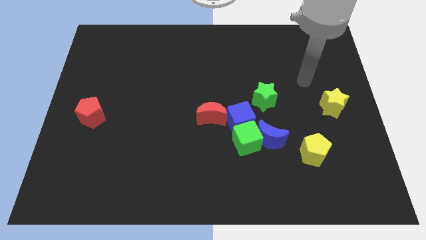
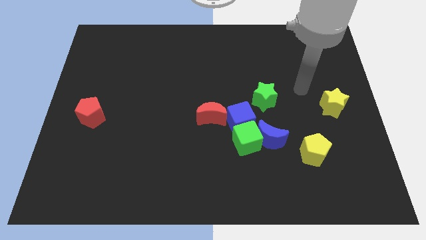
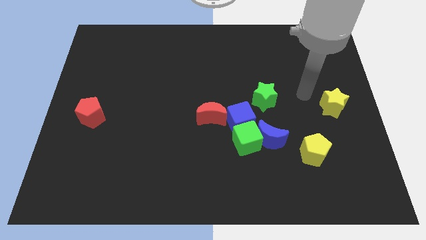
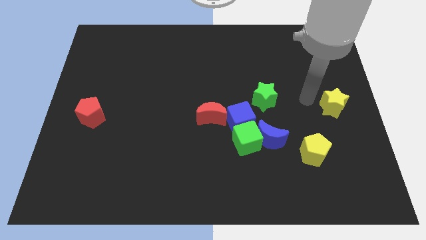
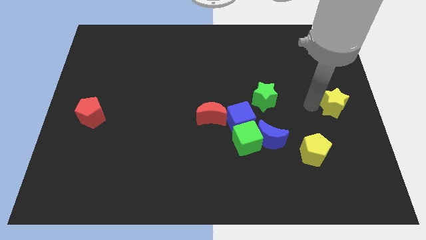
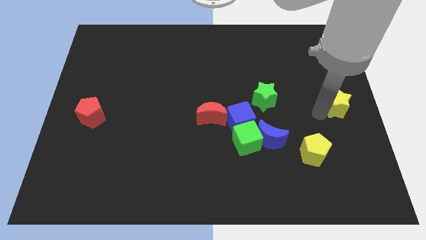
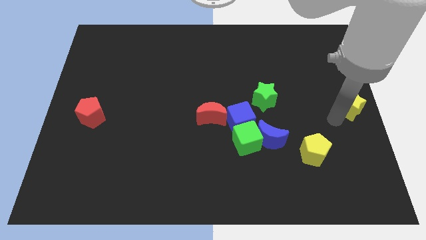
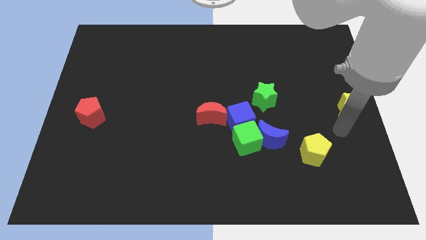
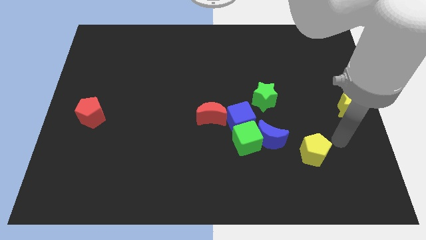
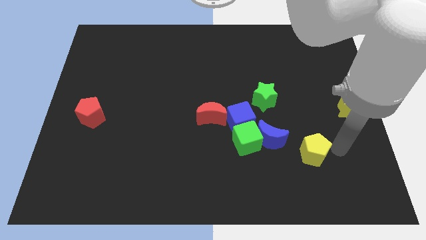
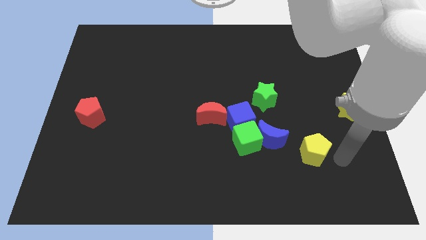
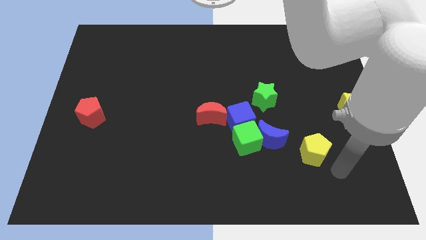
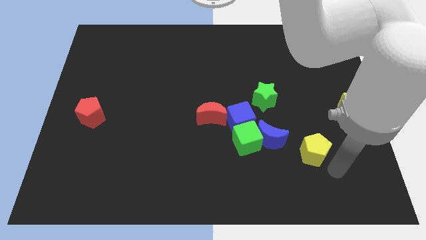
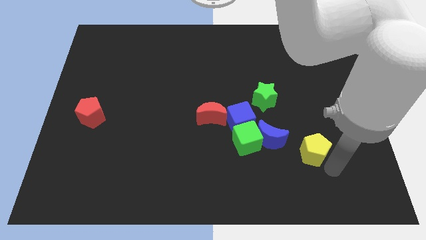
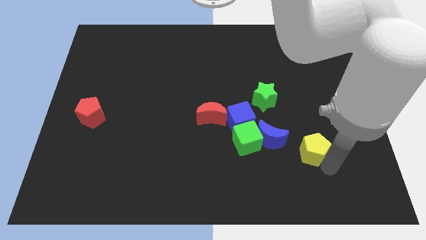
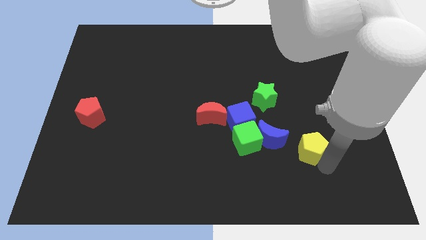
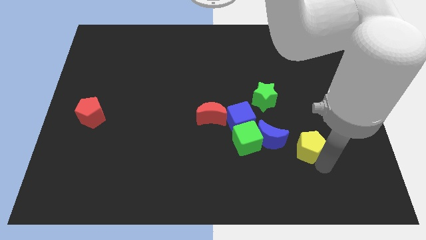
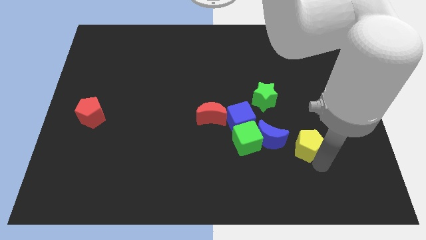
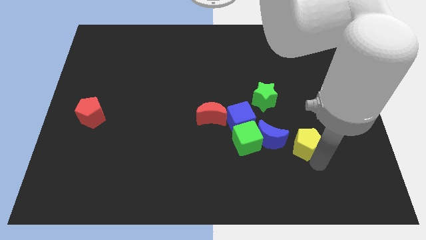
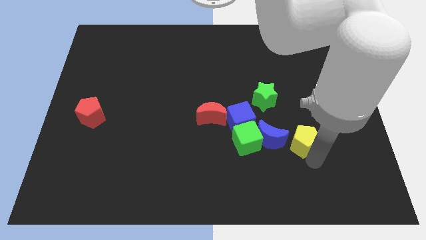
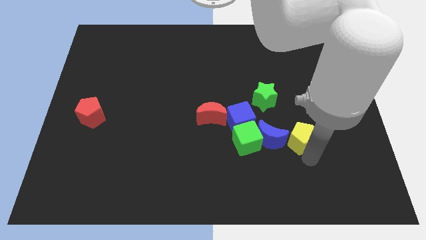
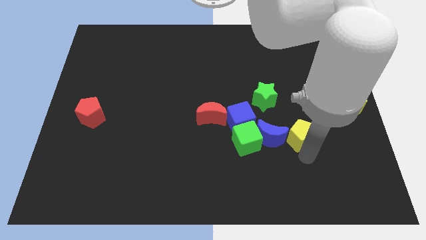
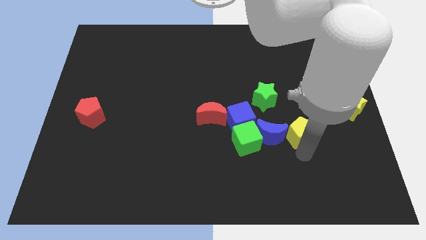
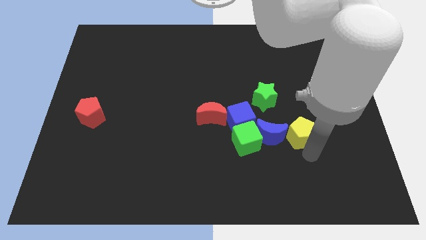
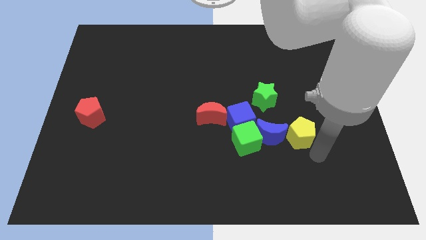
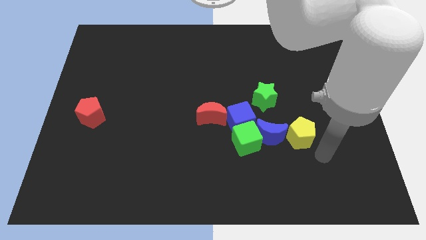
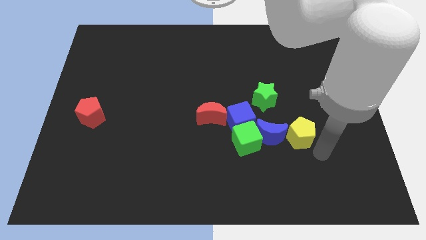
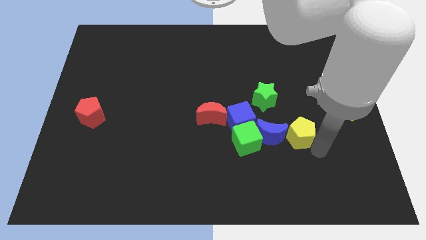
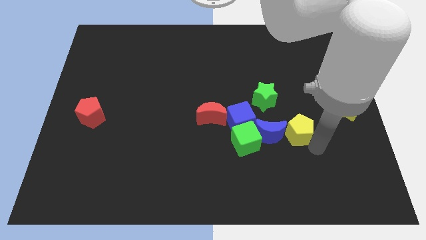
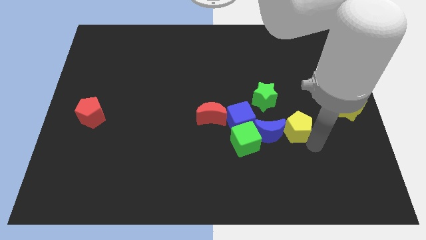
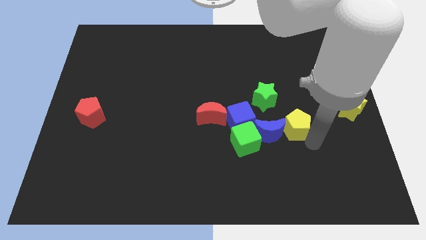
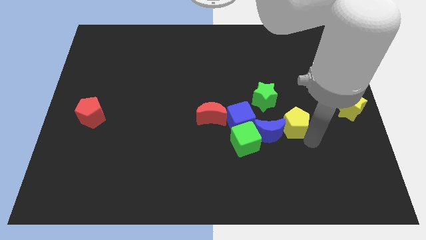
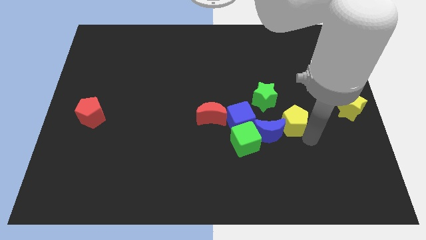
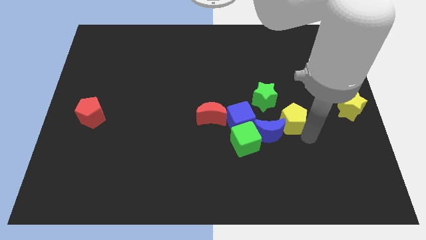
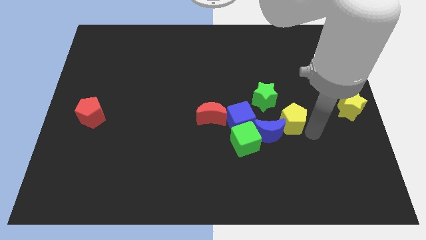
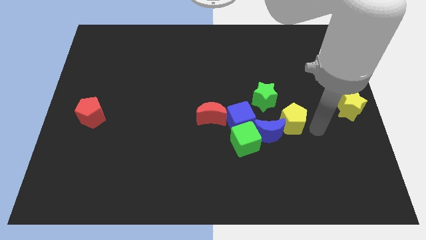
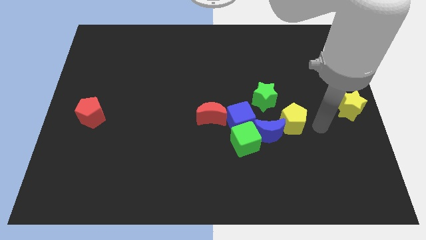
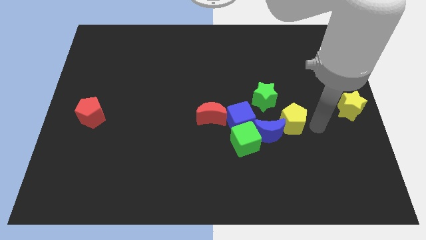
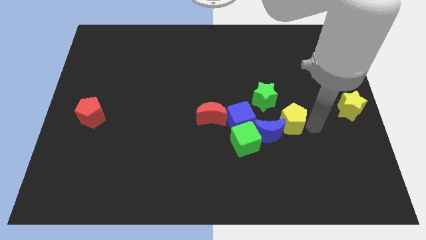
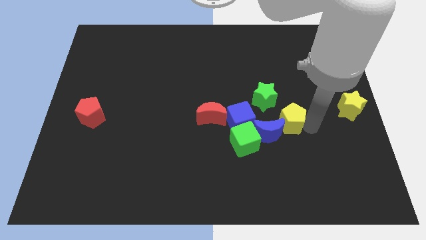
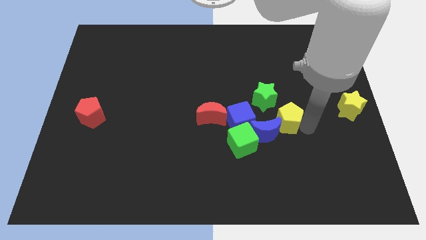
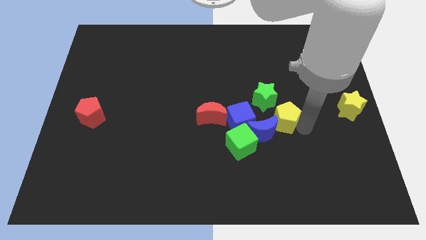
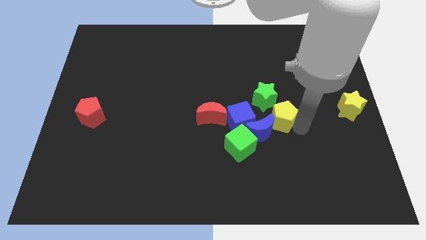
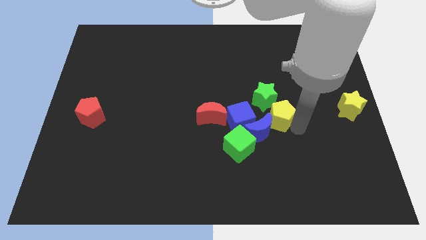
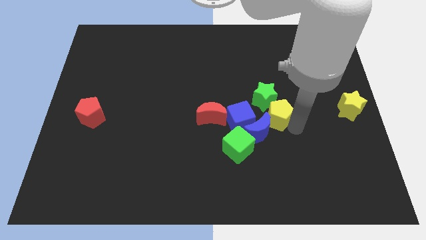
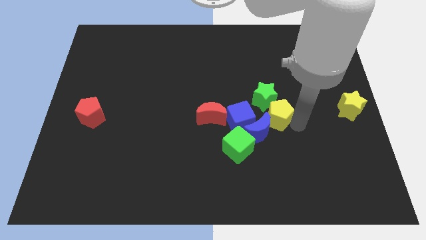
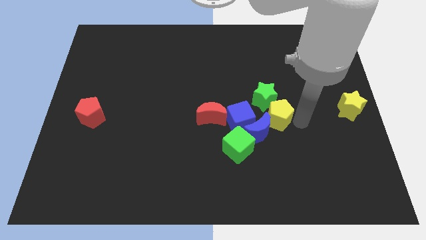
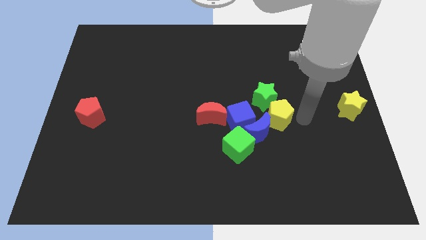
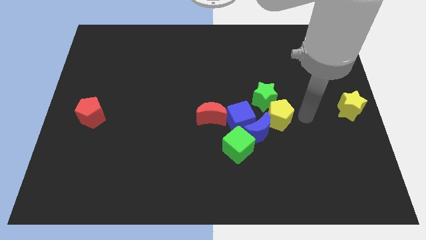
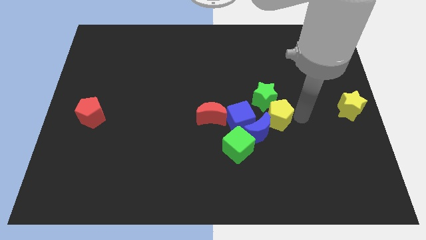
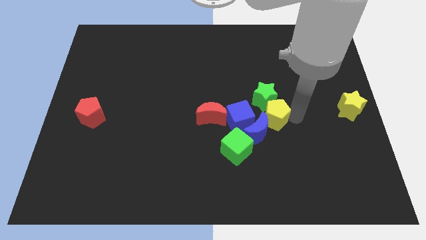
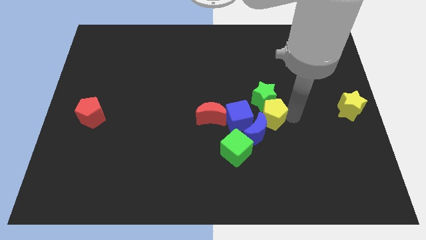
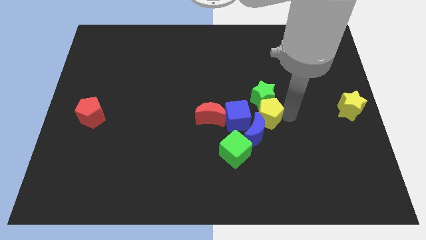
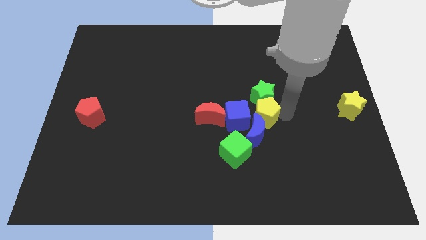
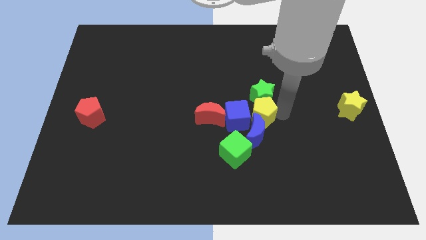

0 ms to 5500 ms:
push the yellow pentagon close to the blue cube

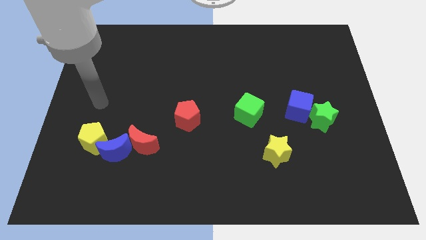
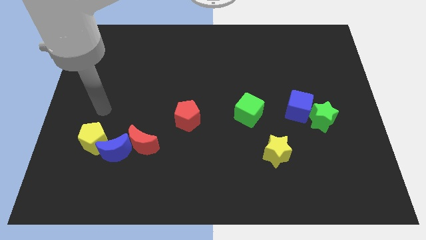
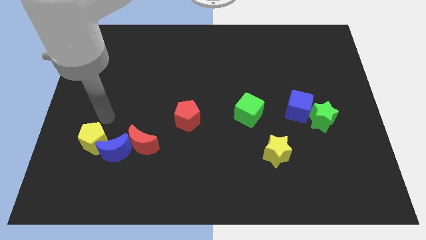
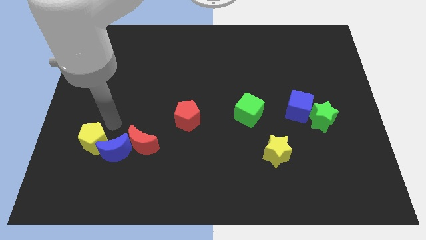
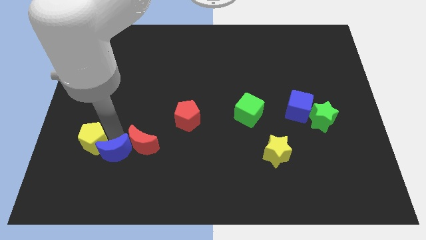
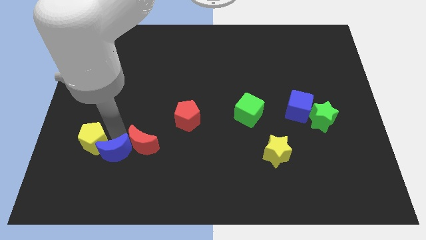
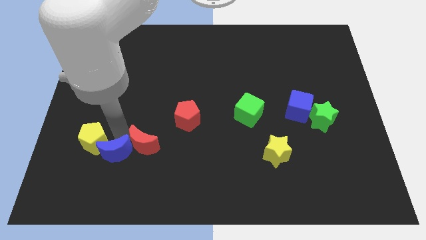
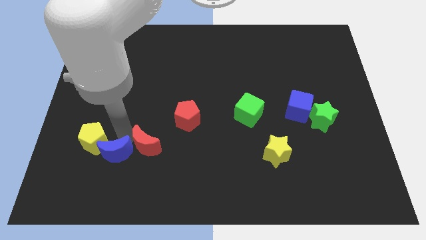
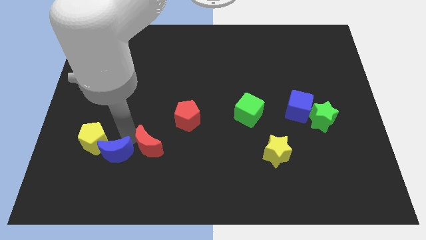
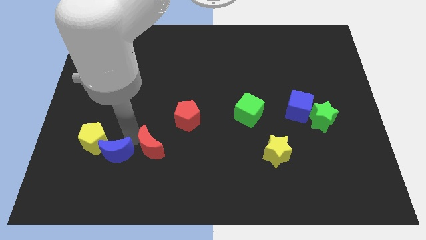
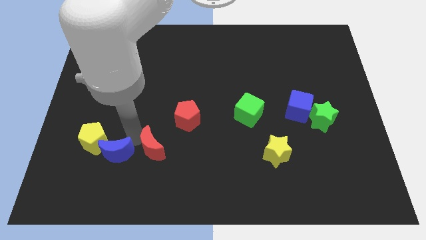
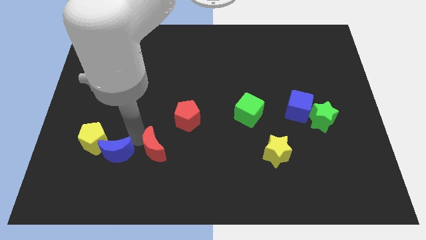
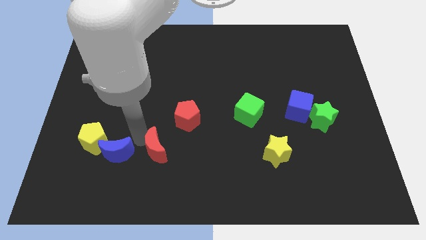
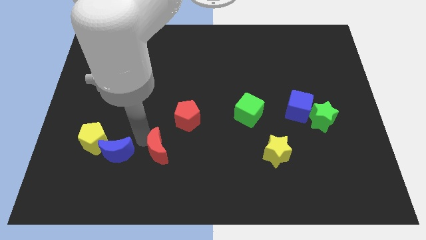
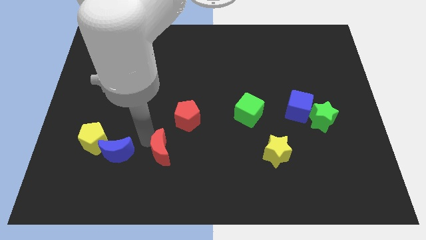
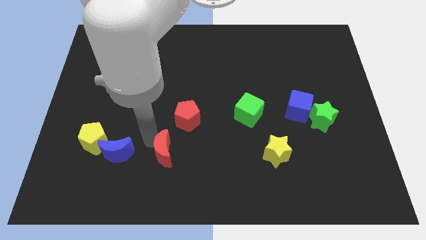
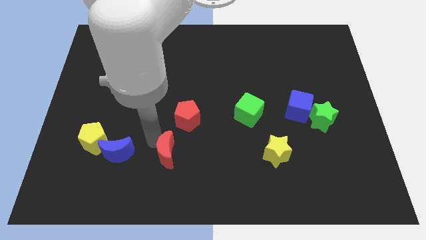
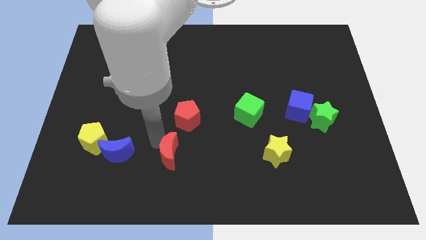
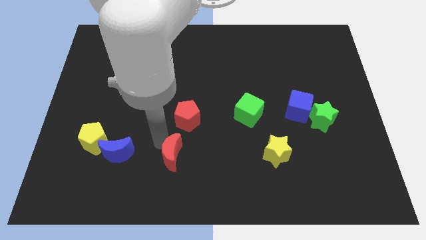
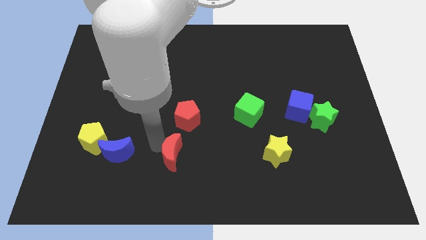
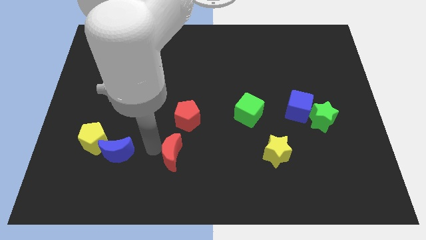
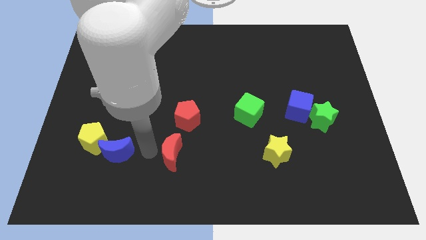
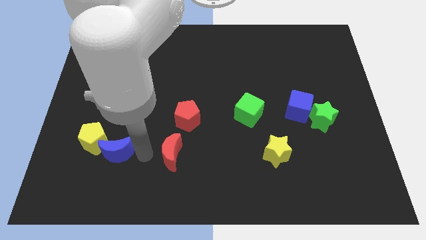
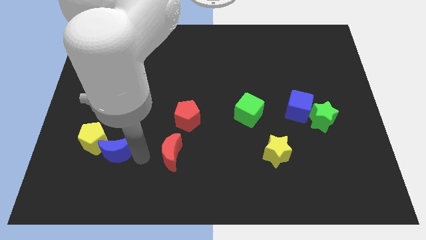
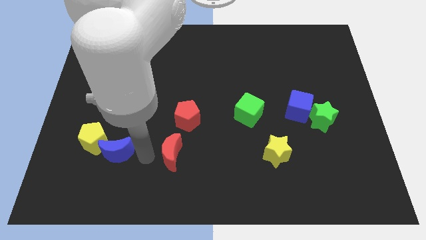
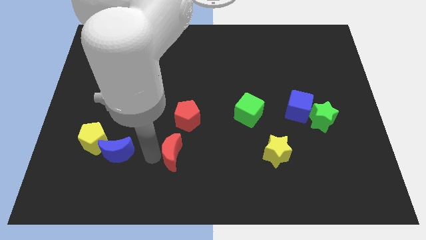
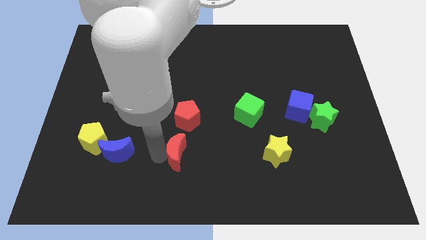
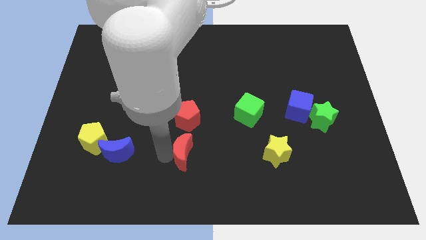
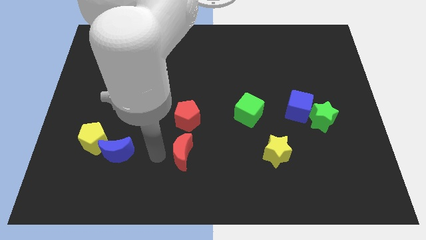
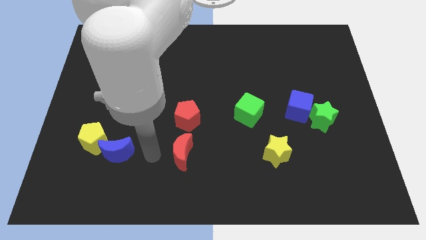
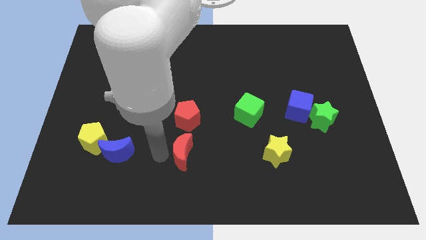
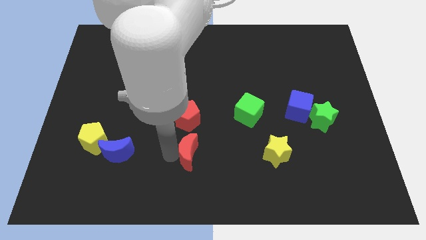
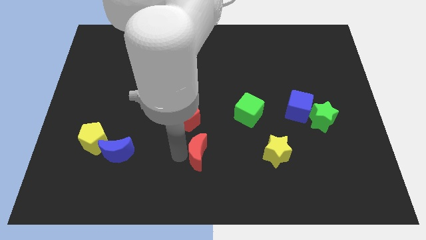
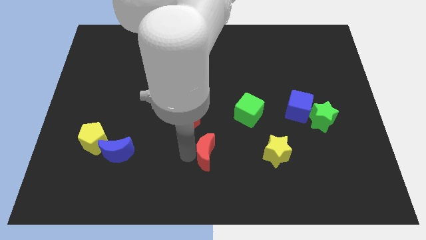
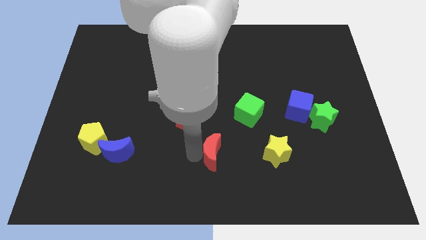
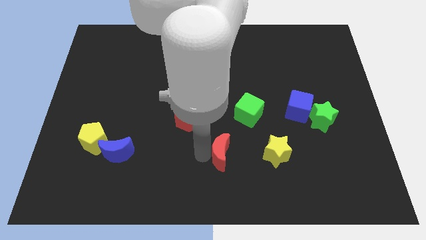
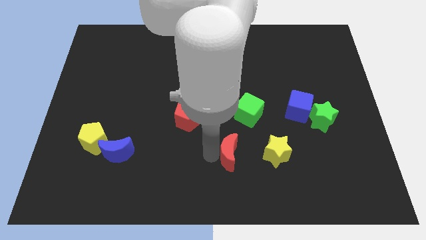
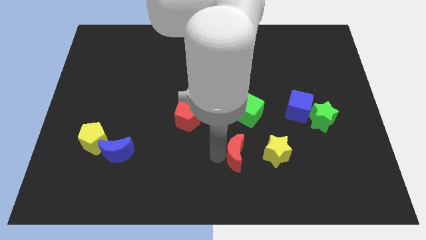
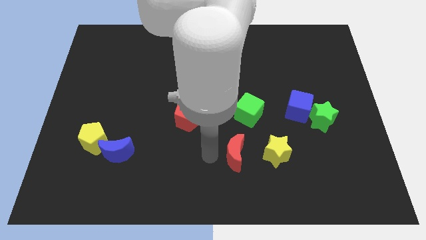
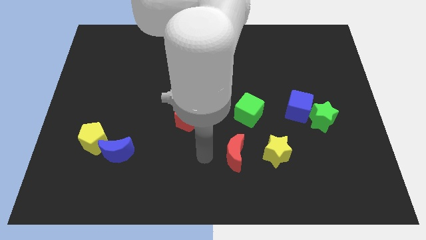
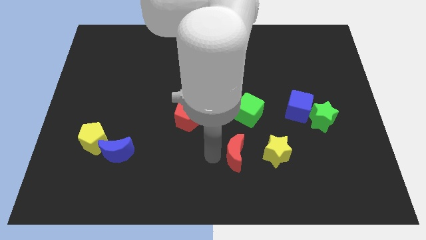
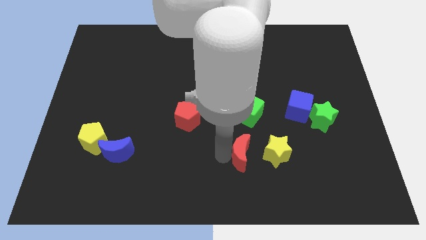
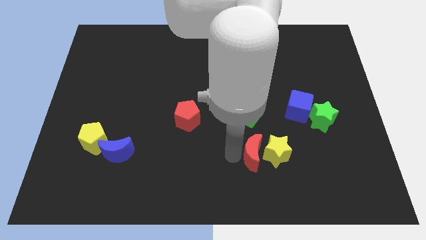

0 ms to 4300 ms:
push the red moon next to the yellow star
